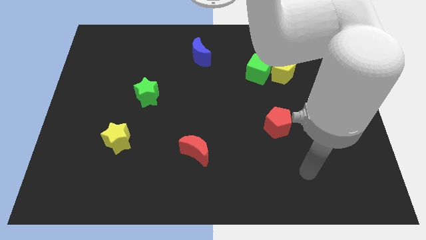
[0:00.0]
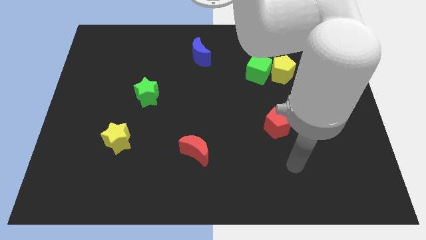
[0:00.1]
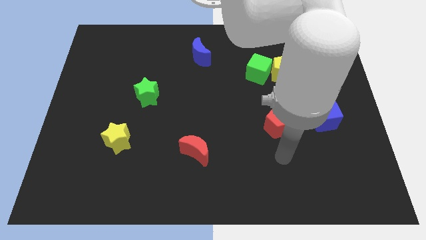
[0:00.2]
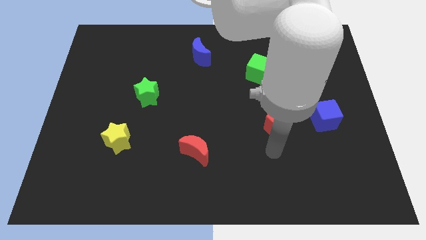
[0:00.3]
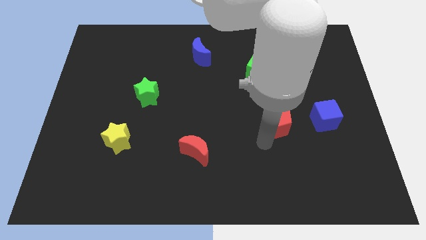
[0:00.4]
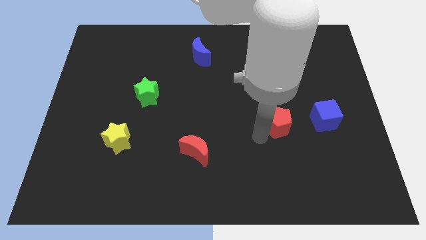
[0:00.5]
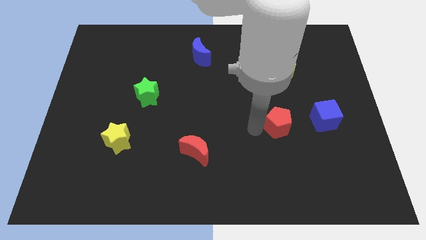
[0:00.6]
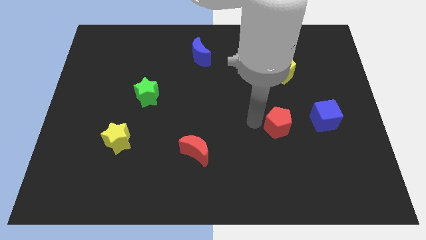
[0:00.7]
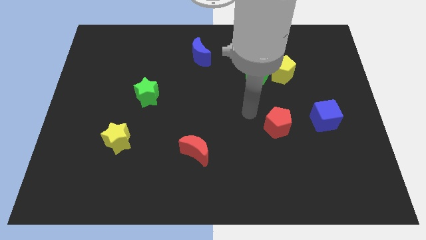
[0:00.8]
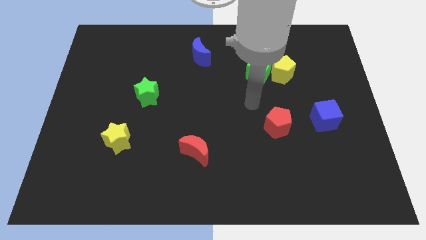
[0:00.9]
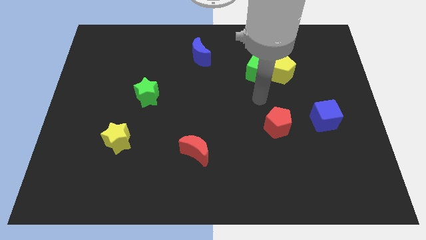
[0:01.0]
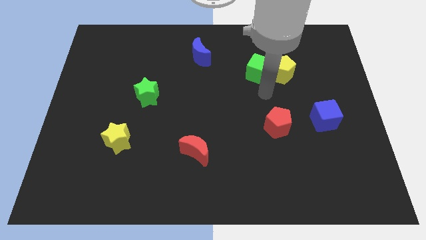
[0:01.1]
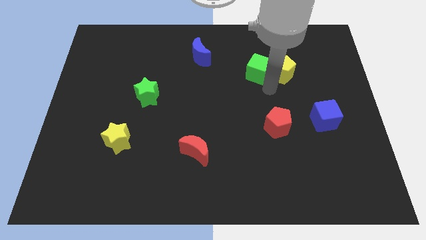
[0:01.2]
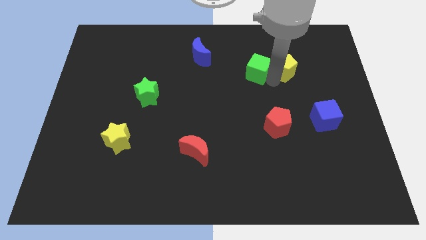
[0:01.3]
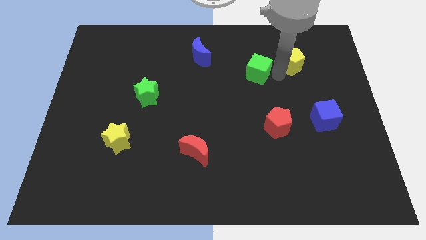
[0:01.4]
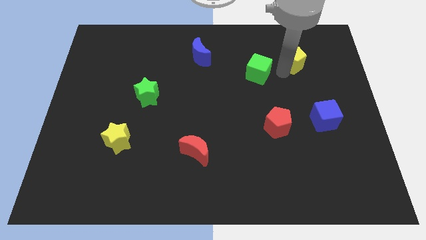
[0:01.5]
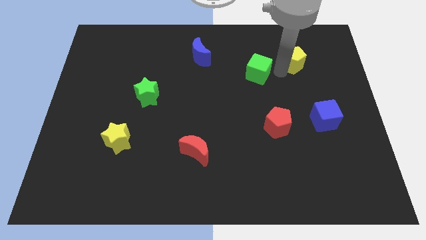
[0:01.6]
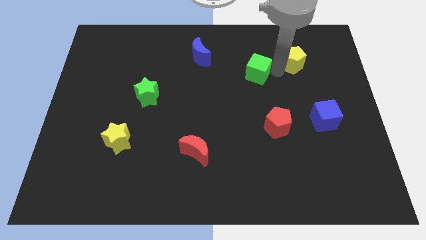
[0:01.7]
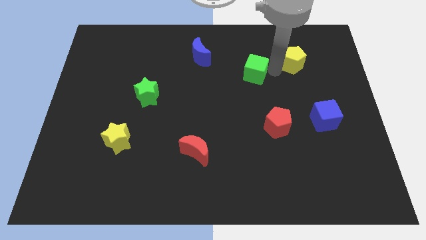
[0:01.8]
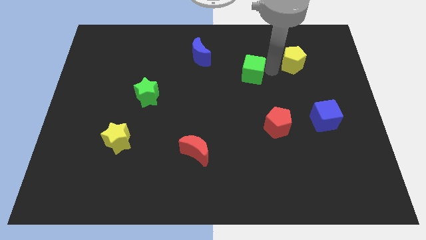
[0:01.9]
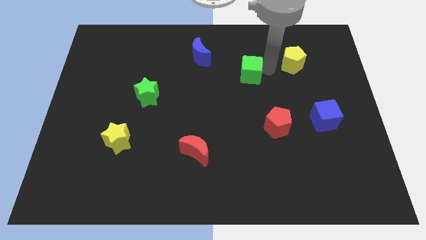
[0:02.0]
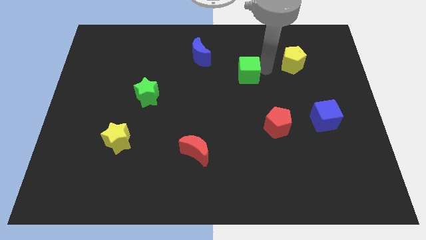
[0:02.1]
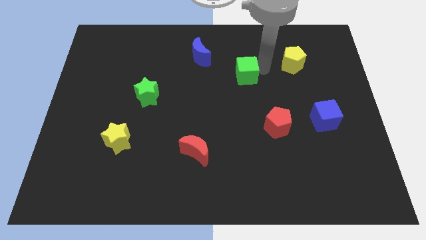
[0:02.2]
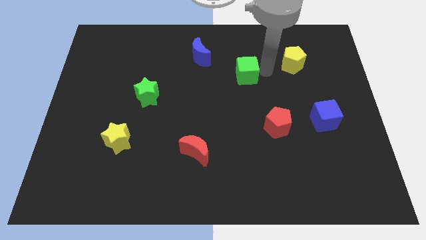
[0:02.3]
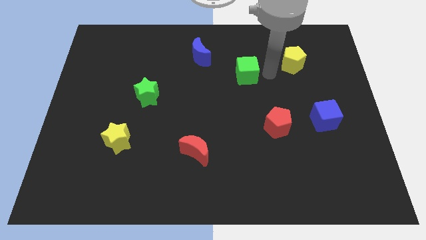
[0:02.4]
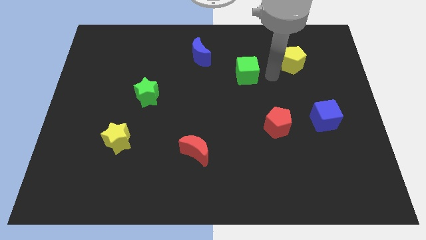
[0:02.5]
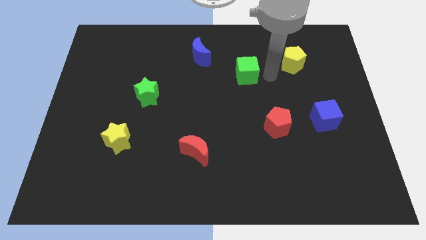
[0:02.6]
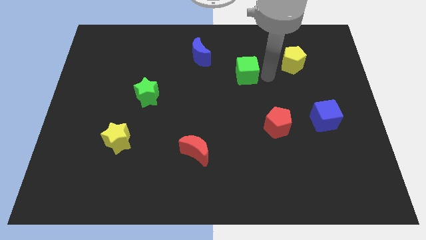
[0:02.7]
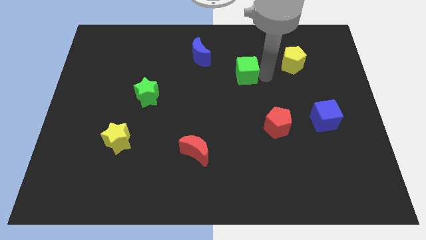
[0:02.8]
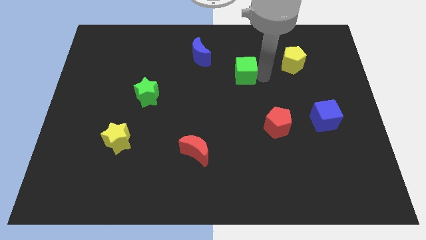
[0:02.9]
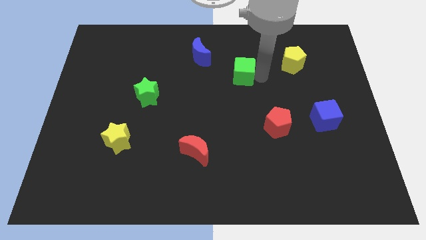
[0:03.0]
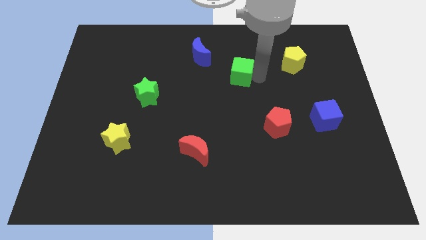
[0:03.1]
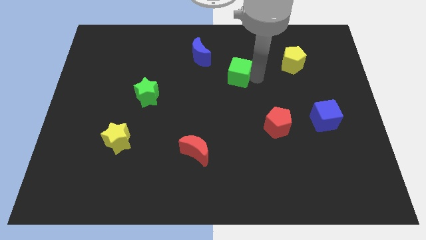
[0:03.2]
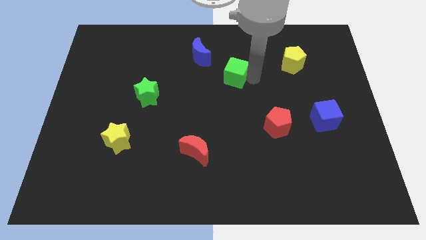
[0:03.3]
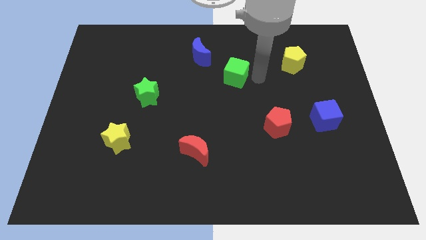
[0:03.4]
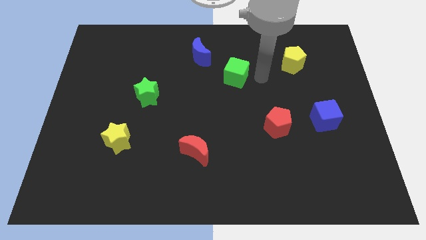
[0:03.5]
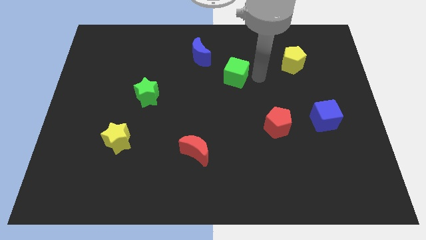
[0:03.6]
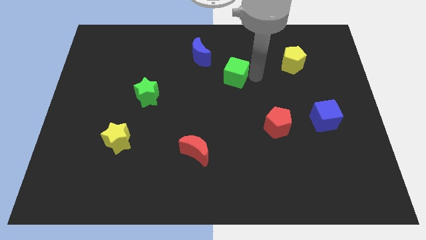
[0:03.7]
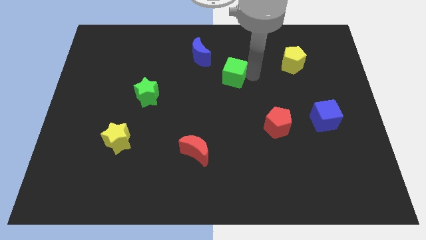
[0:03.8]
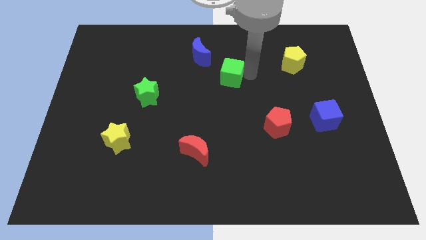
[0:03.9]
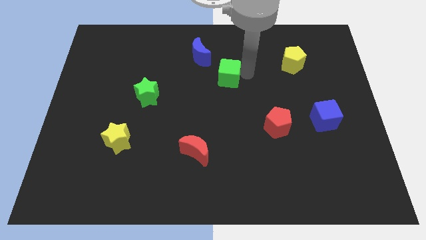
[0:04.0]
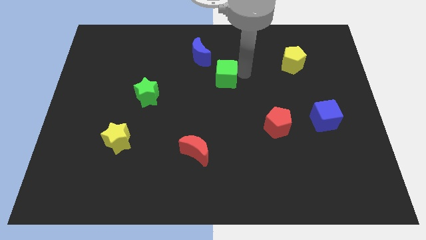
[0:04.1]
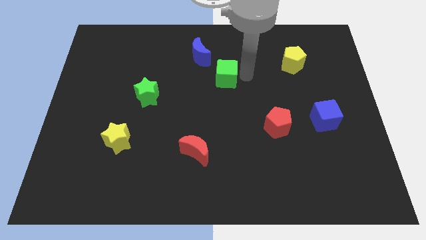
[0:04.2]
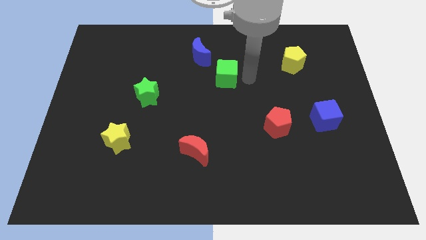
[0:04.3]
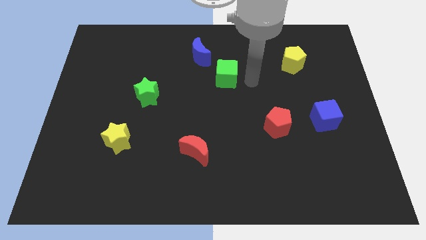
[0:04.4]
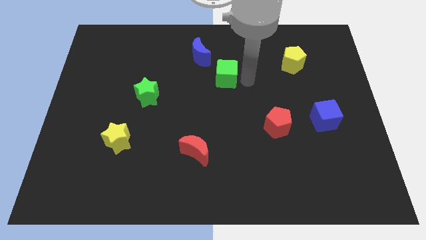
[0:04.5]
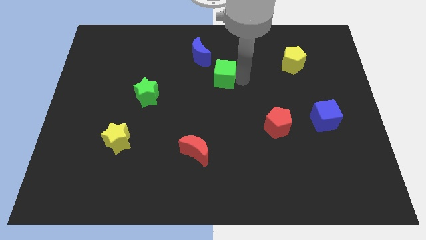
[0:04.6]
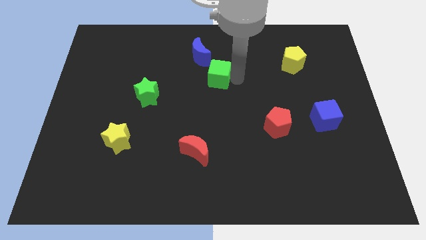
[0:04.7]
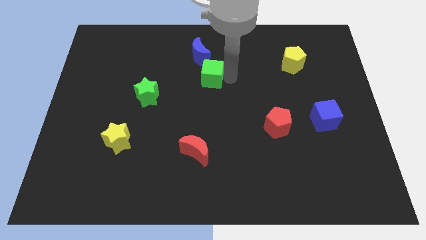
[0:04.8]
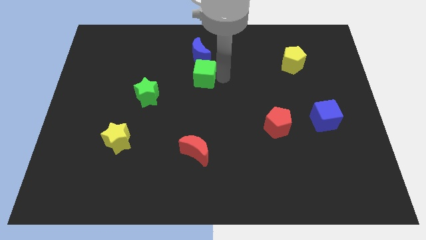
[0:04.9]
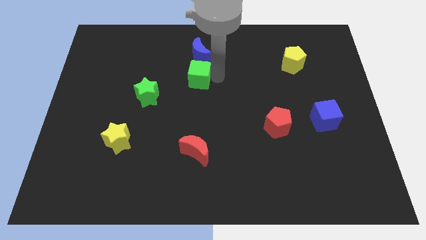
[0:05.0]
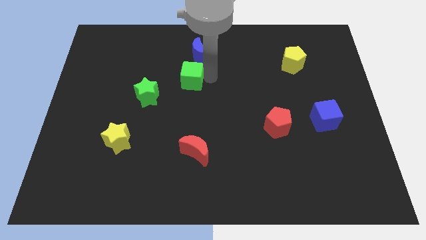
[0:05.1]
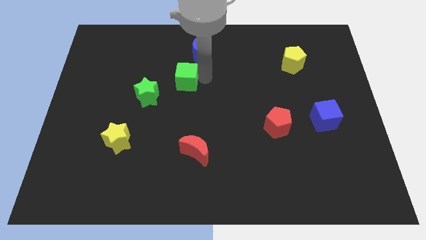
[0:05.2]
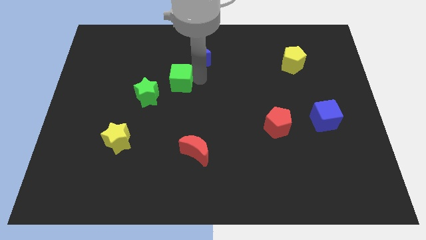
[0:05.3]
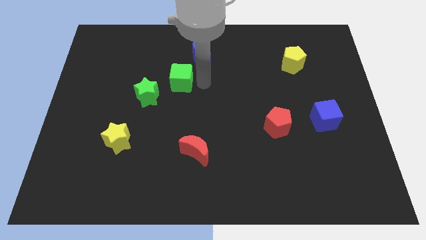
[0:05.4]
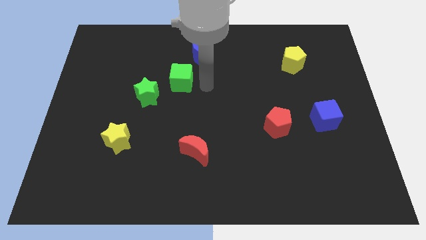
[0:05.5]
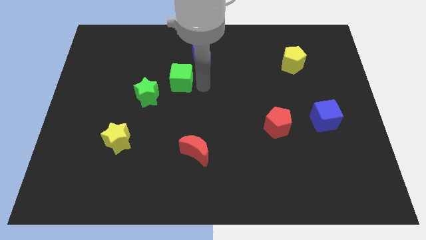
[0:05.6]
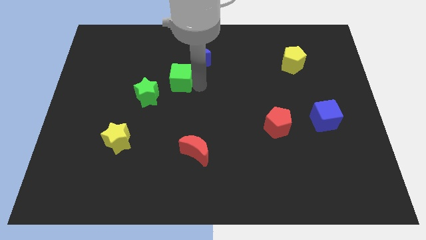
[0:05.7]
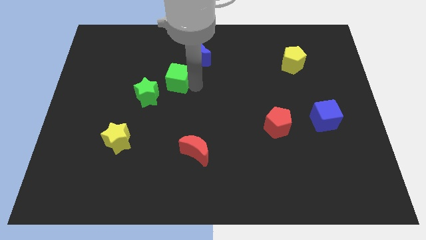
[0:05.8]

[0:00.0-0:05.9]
move the green cube to the left

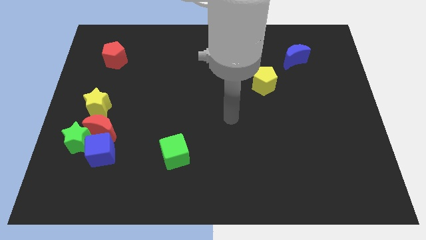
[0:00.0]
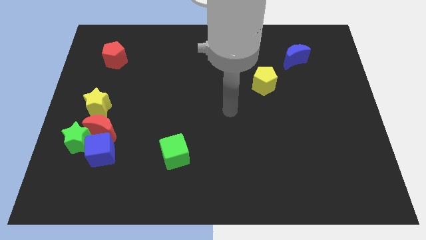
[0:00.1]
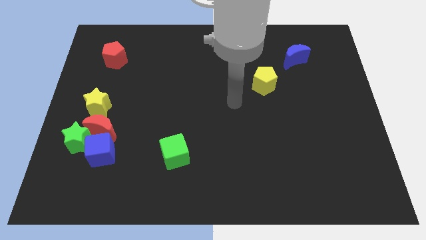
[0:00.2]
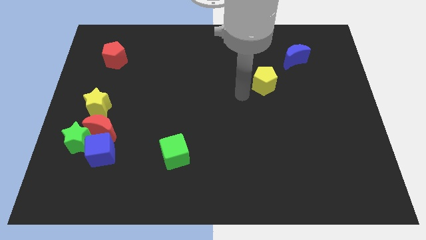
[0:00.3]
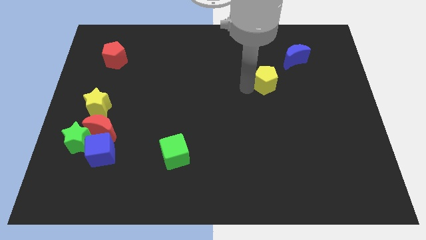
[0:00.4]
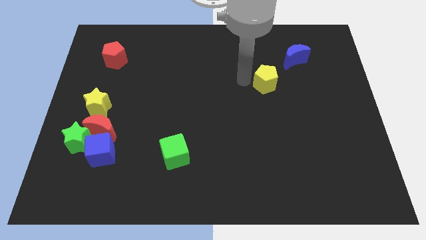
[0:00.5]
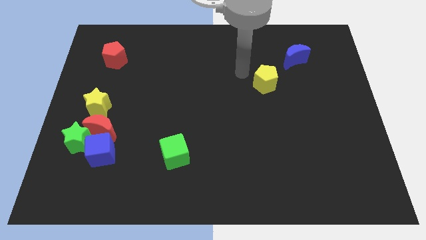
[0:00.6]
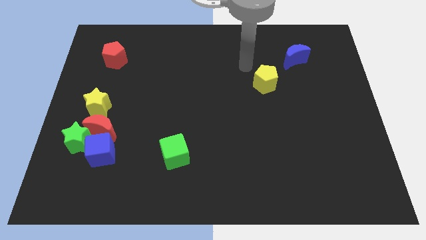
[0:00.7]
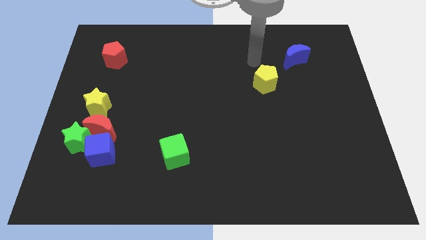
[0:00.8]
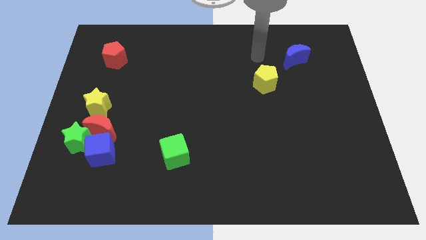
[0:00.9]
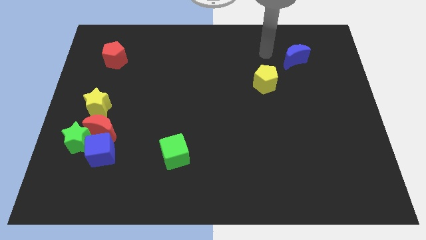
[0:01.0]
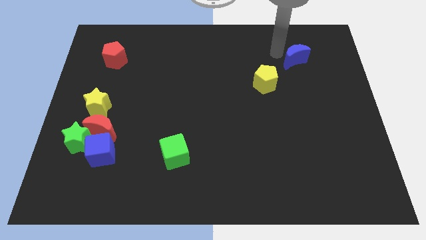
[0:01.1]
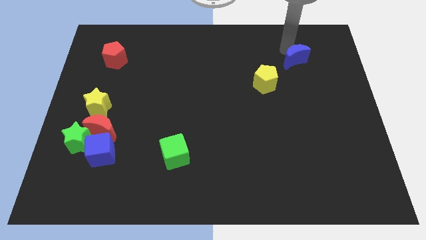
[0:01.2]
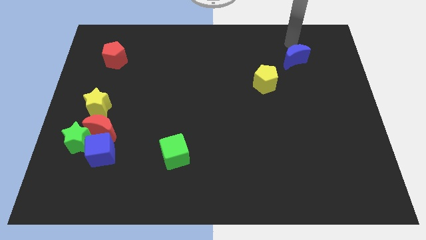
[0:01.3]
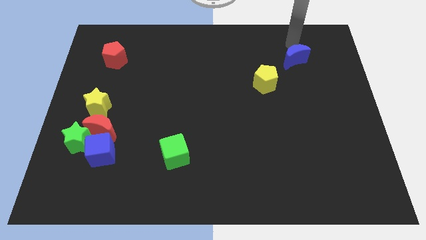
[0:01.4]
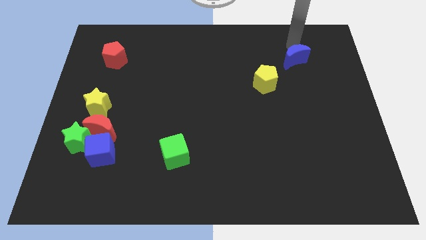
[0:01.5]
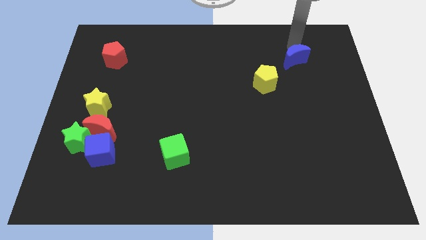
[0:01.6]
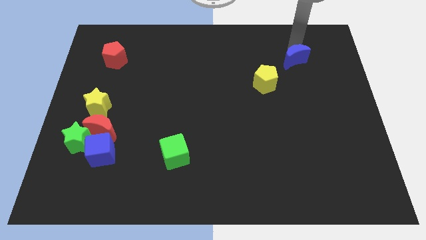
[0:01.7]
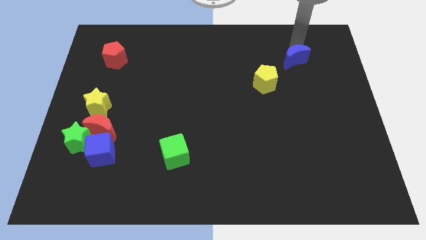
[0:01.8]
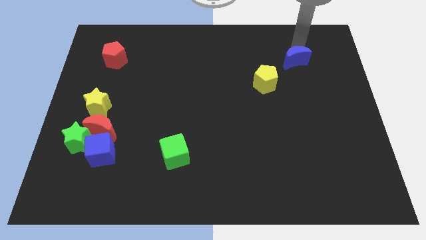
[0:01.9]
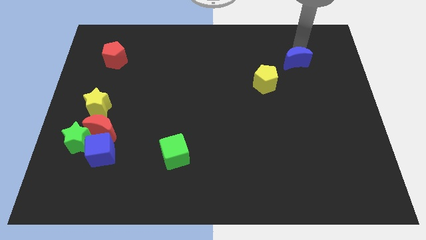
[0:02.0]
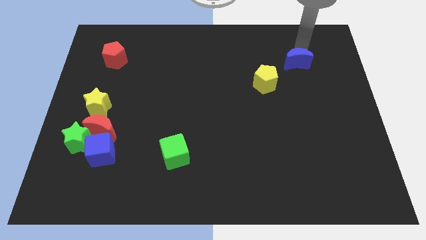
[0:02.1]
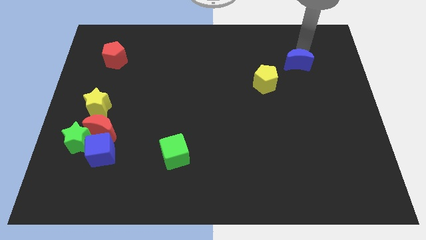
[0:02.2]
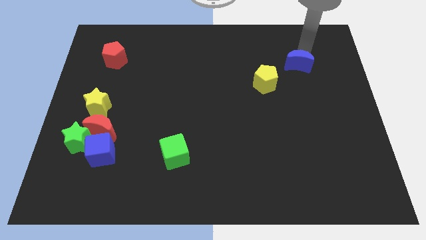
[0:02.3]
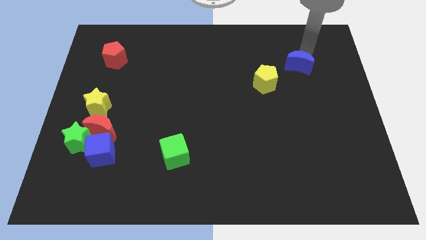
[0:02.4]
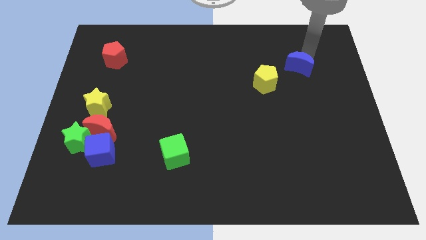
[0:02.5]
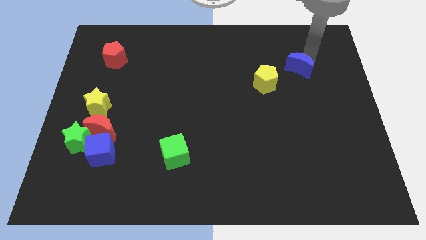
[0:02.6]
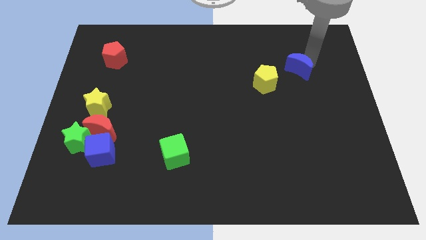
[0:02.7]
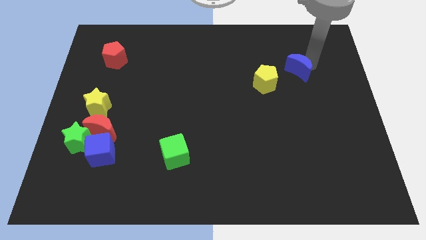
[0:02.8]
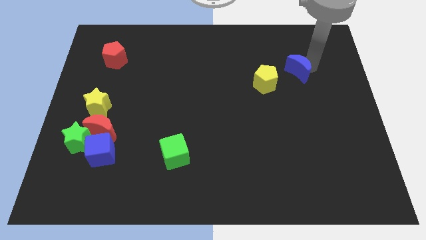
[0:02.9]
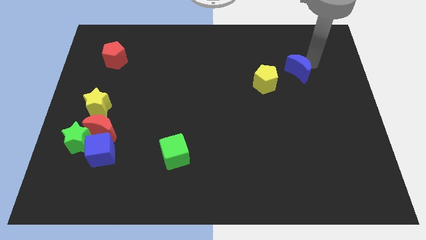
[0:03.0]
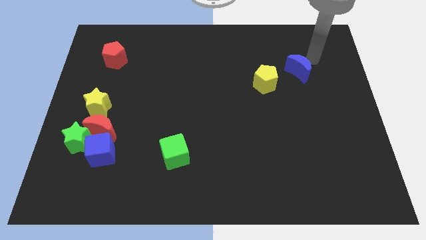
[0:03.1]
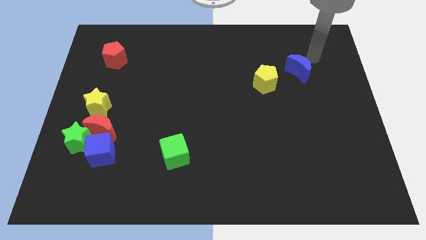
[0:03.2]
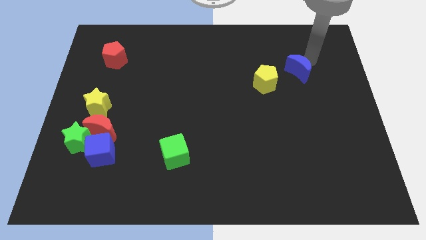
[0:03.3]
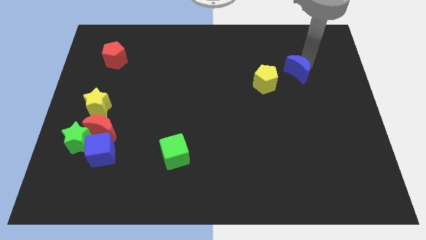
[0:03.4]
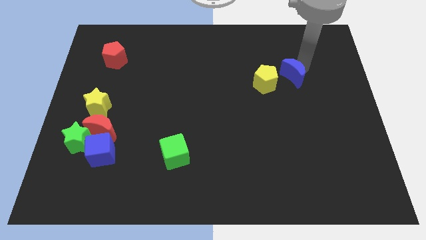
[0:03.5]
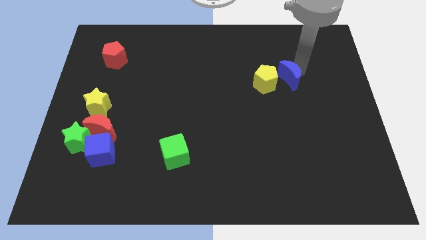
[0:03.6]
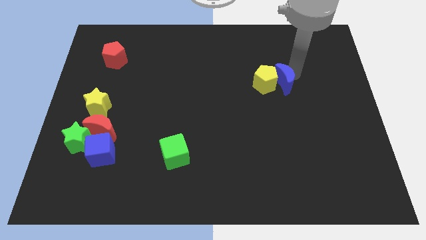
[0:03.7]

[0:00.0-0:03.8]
slide the blue moon diagonally downwards and to the left a little
